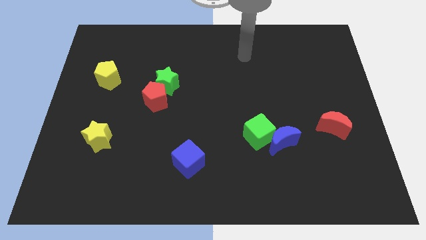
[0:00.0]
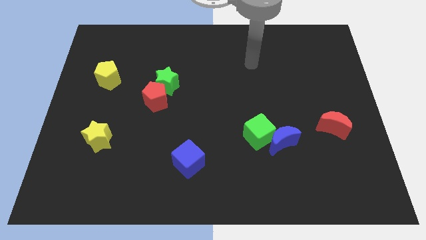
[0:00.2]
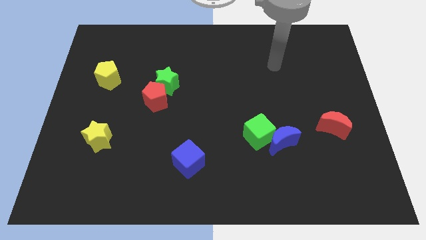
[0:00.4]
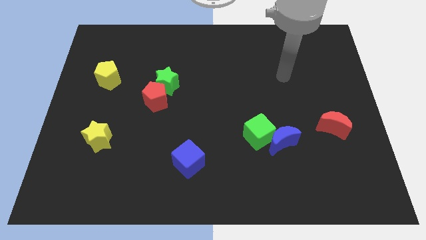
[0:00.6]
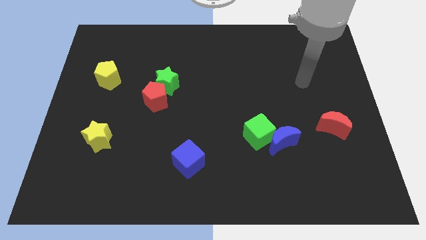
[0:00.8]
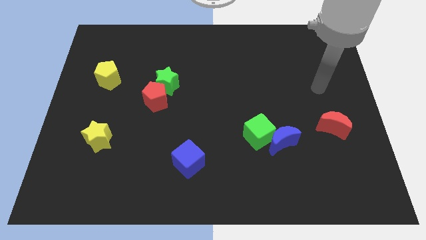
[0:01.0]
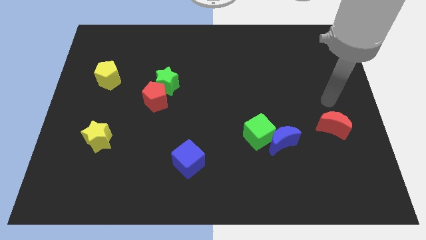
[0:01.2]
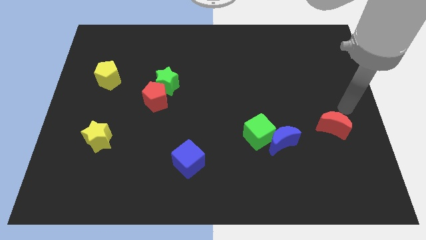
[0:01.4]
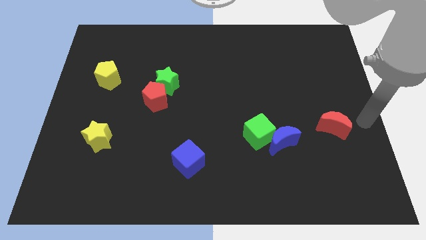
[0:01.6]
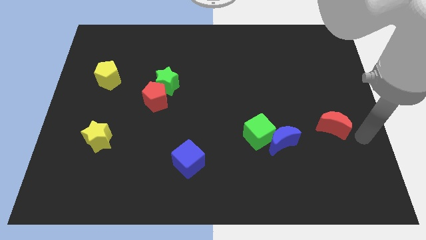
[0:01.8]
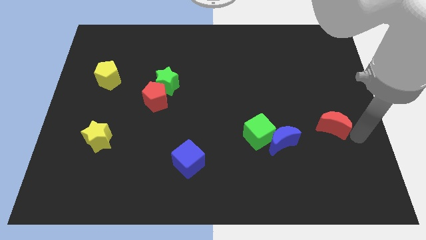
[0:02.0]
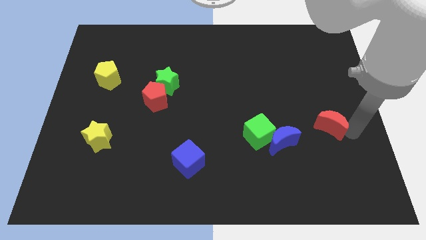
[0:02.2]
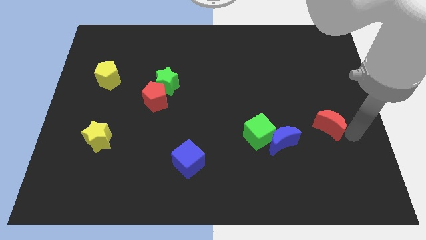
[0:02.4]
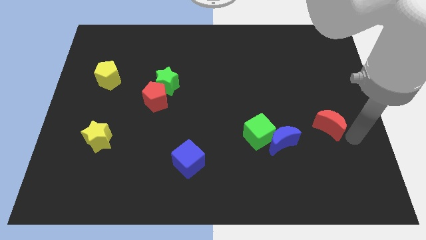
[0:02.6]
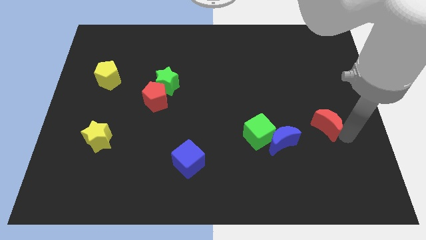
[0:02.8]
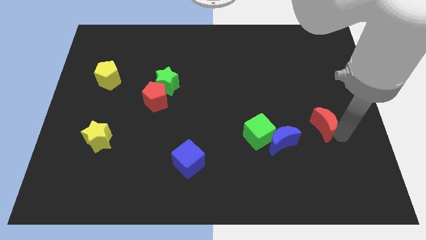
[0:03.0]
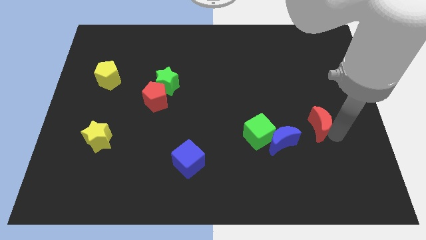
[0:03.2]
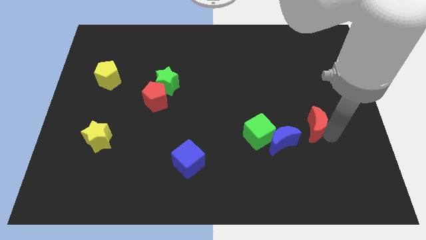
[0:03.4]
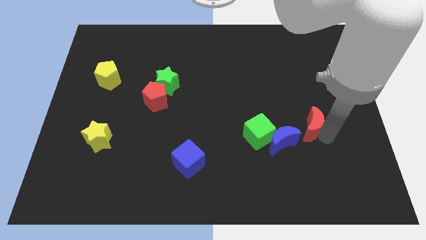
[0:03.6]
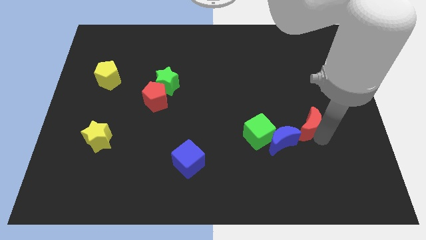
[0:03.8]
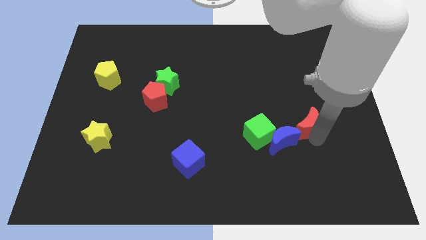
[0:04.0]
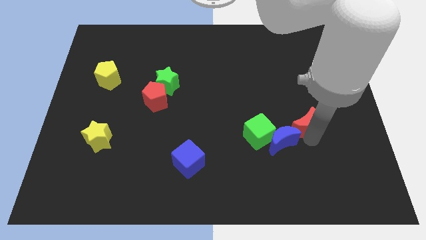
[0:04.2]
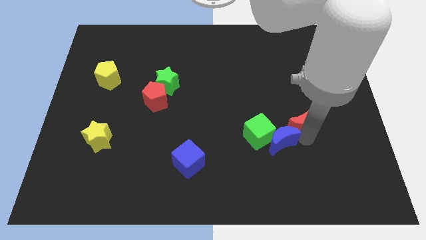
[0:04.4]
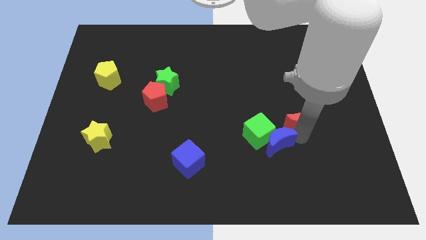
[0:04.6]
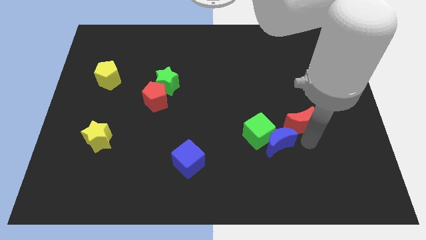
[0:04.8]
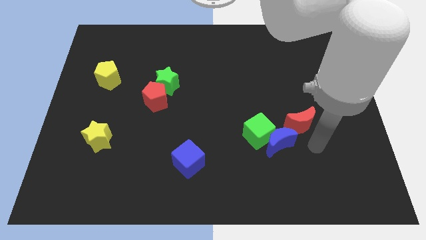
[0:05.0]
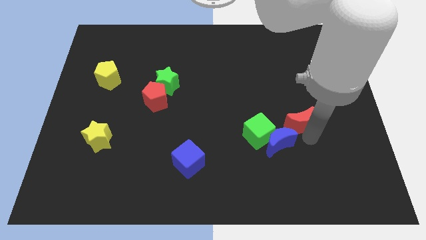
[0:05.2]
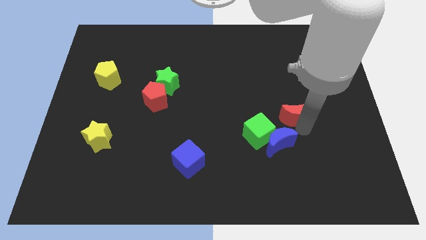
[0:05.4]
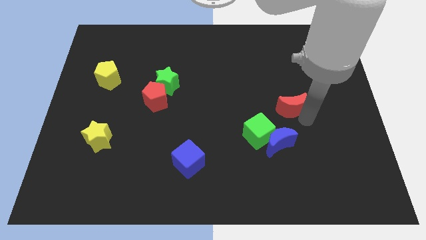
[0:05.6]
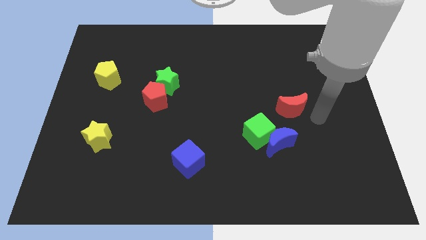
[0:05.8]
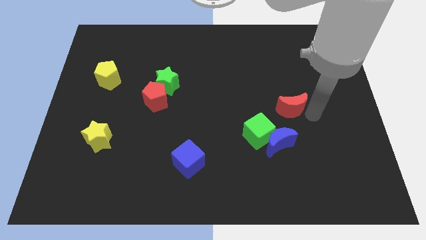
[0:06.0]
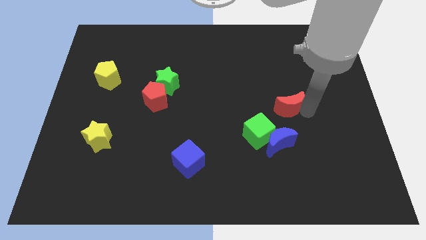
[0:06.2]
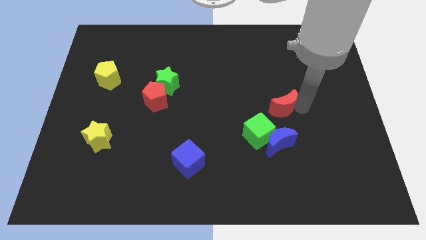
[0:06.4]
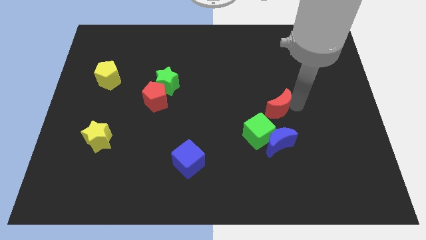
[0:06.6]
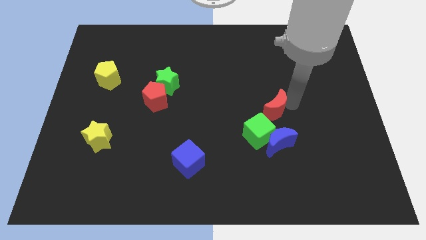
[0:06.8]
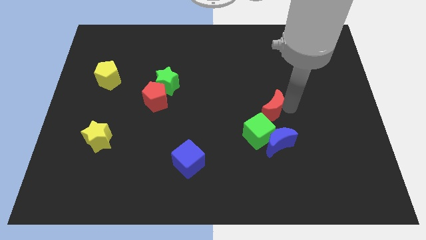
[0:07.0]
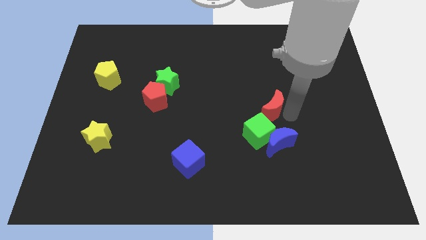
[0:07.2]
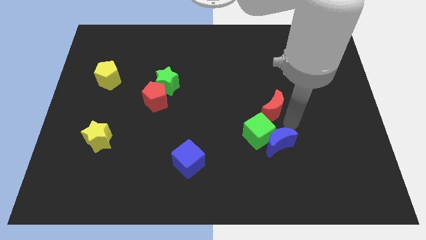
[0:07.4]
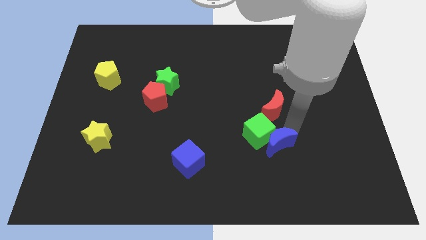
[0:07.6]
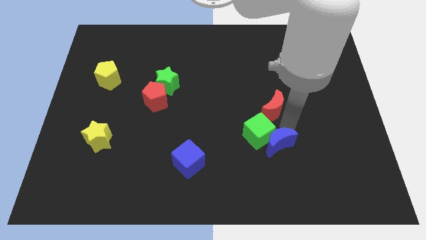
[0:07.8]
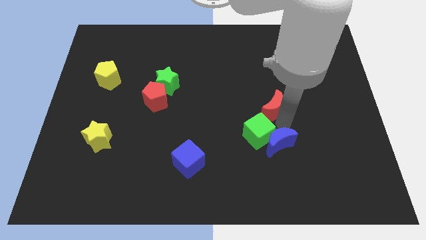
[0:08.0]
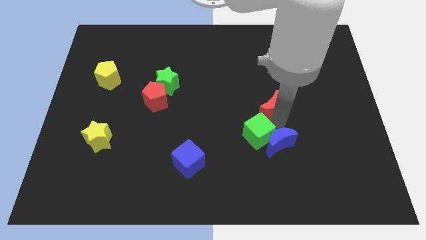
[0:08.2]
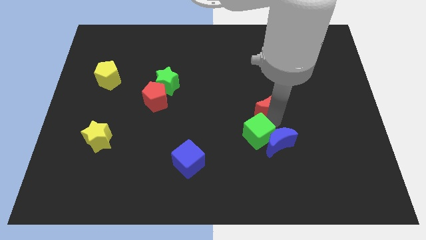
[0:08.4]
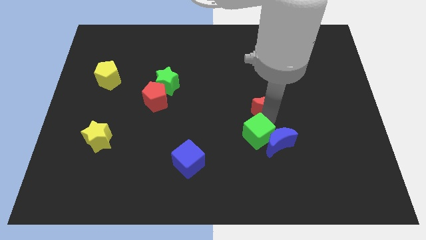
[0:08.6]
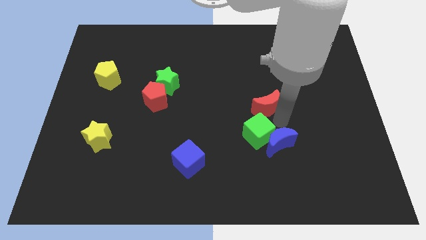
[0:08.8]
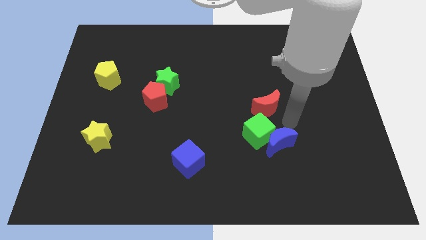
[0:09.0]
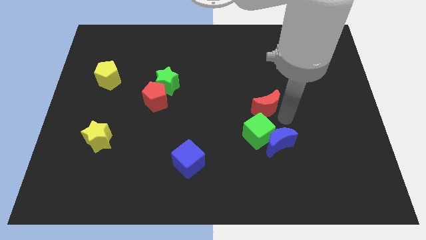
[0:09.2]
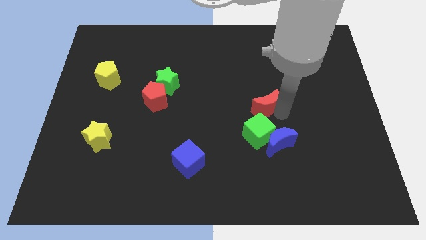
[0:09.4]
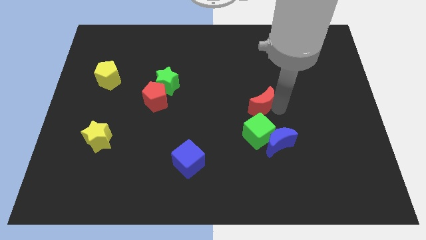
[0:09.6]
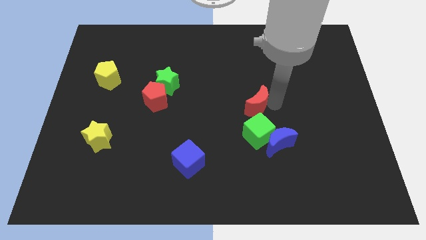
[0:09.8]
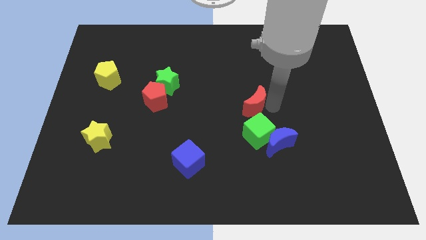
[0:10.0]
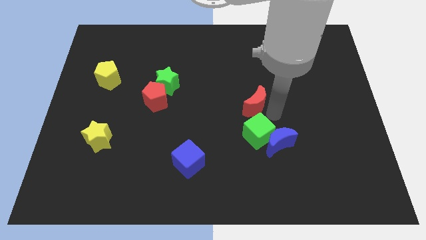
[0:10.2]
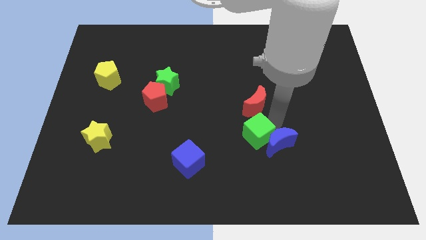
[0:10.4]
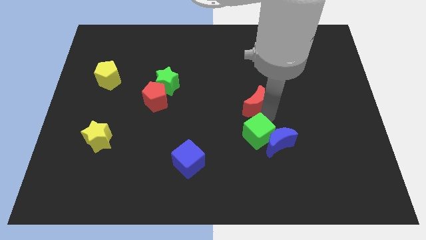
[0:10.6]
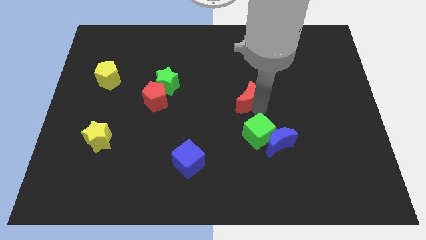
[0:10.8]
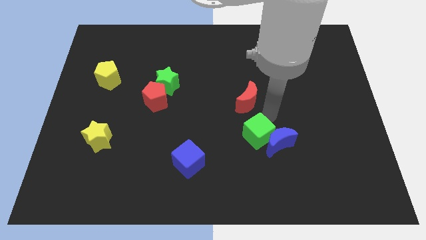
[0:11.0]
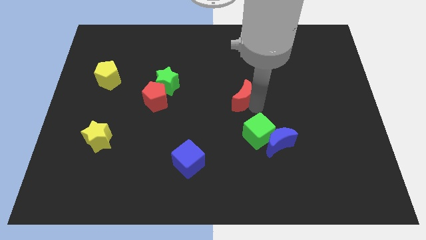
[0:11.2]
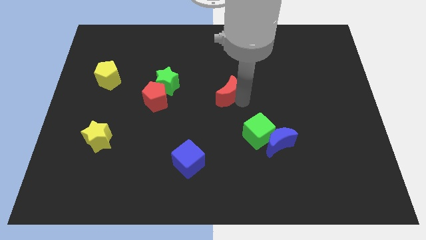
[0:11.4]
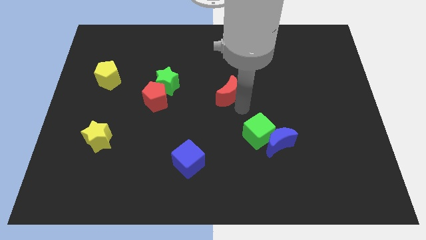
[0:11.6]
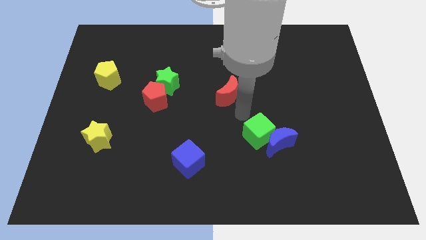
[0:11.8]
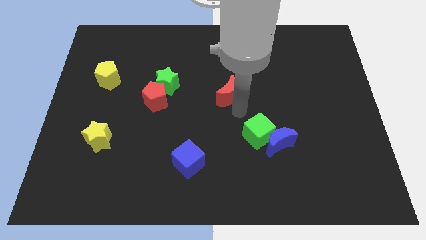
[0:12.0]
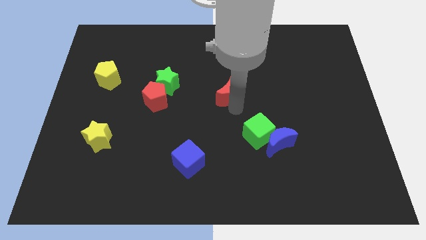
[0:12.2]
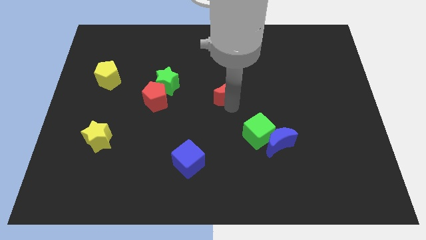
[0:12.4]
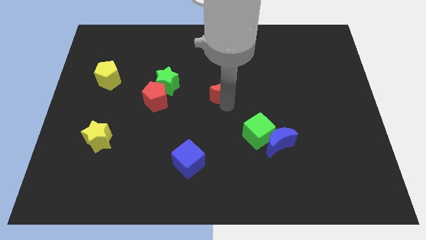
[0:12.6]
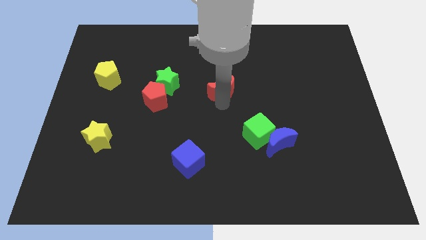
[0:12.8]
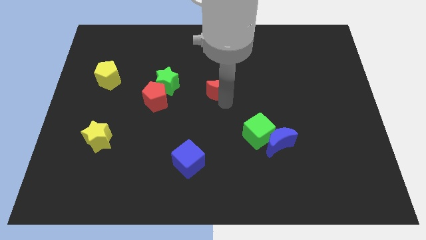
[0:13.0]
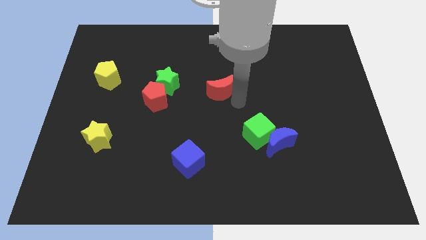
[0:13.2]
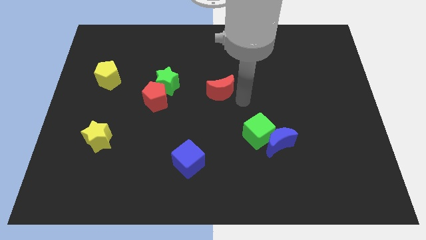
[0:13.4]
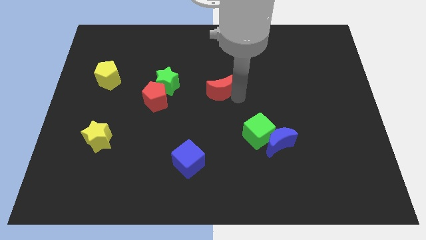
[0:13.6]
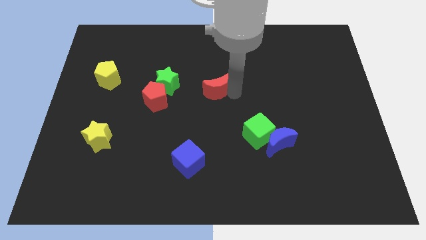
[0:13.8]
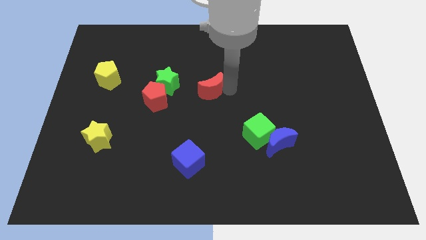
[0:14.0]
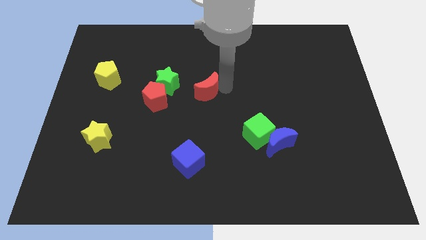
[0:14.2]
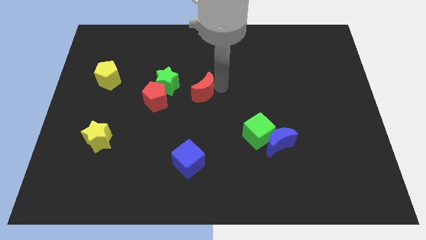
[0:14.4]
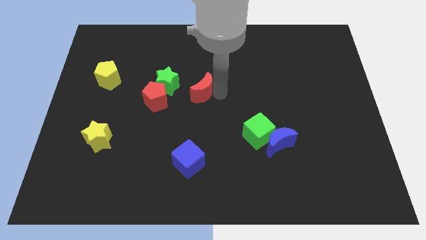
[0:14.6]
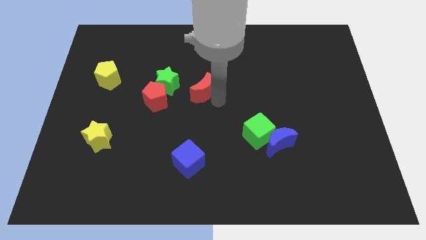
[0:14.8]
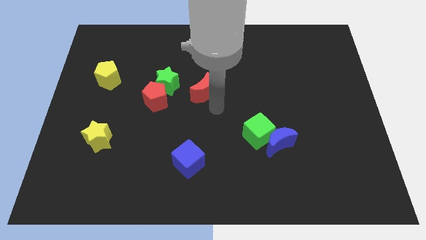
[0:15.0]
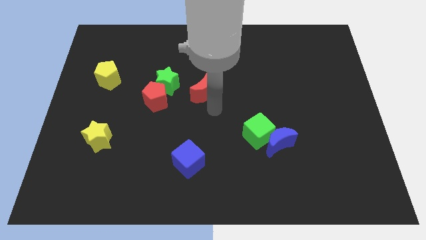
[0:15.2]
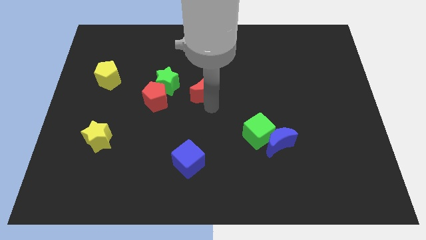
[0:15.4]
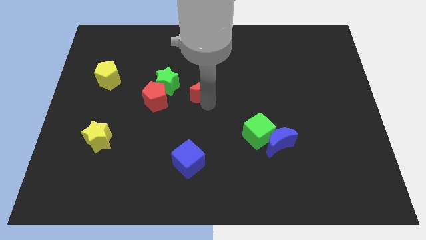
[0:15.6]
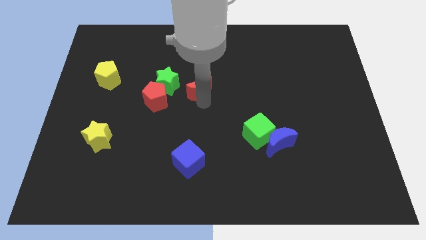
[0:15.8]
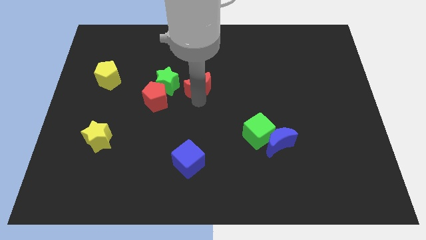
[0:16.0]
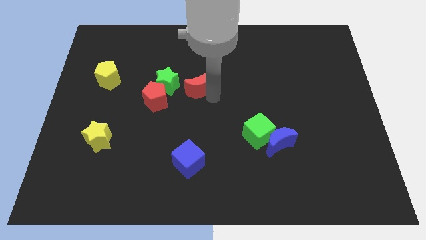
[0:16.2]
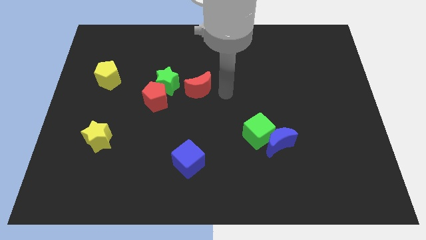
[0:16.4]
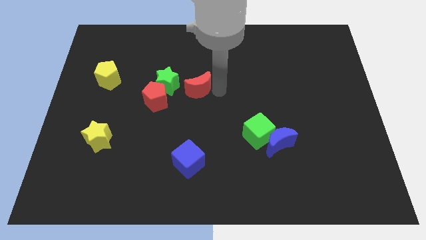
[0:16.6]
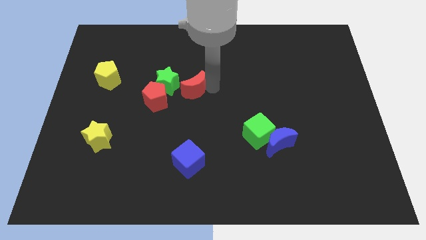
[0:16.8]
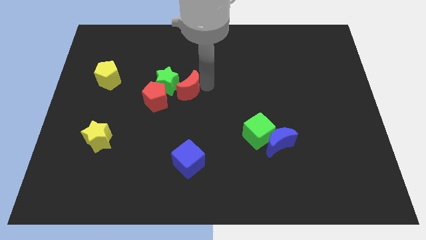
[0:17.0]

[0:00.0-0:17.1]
put the red moon to the green star
